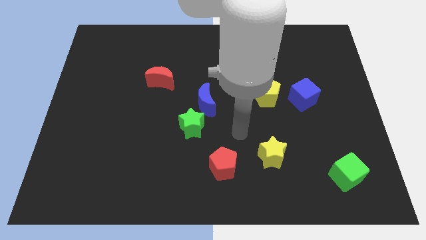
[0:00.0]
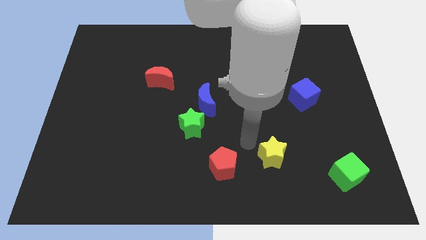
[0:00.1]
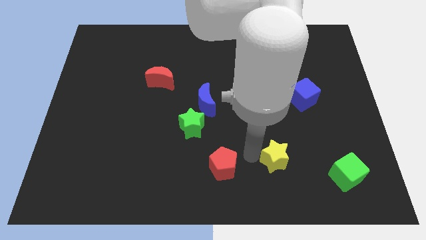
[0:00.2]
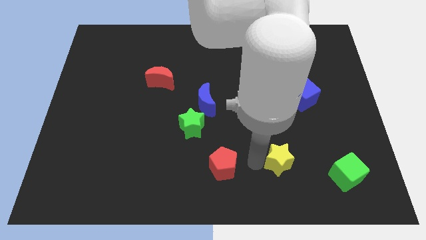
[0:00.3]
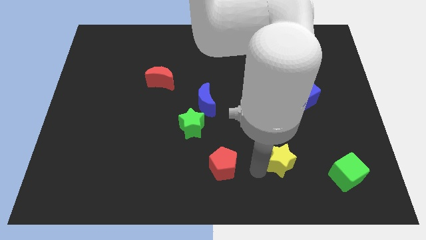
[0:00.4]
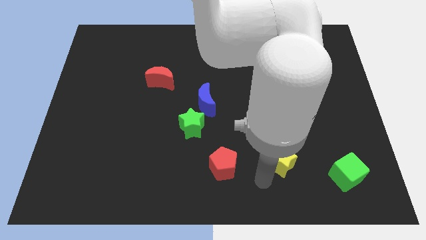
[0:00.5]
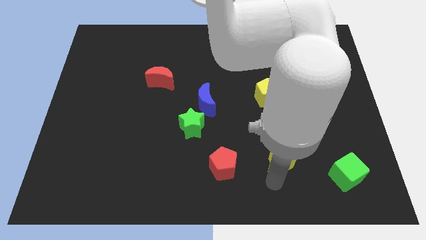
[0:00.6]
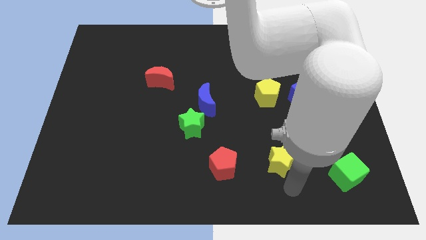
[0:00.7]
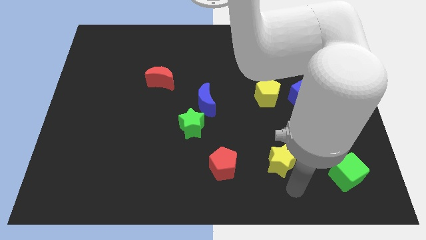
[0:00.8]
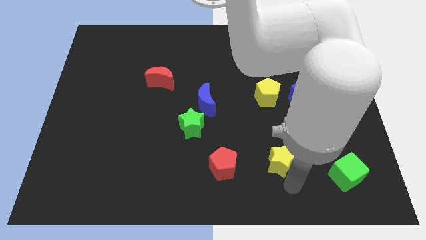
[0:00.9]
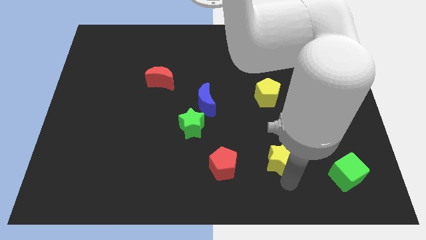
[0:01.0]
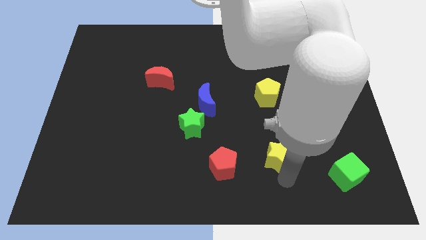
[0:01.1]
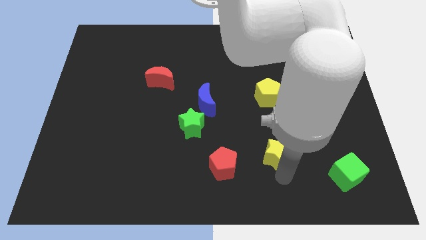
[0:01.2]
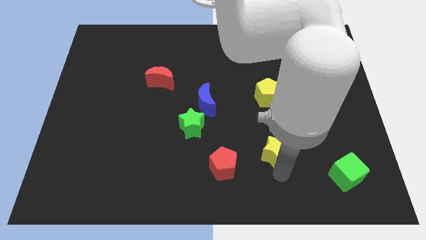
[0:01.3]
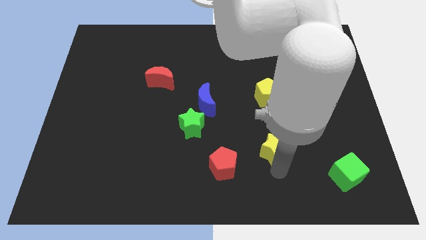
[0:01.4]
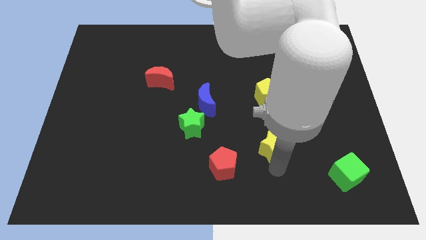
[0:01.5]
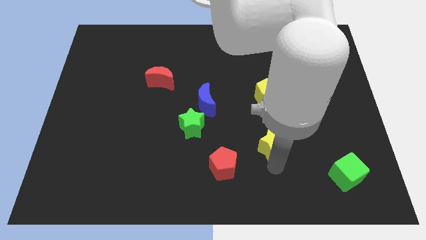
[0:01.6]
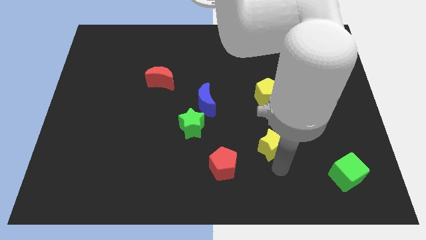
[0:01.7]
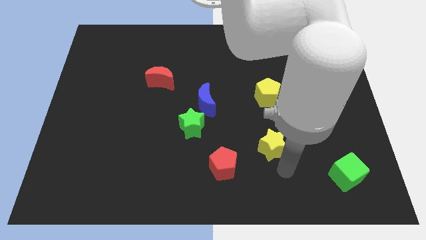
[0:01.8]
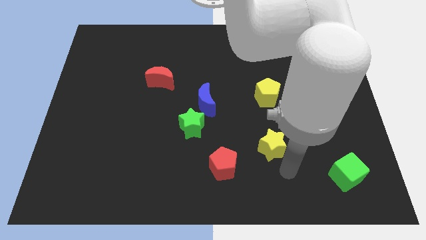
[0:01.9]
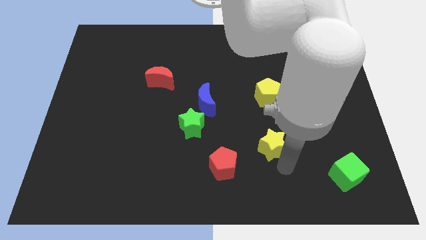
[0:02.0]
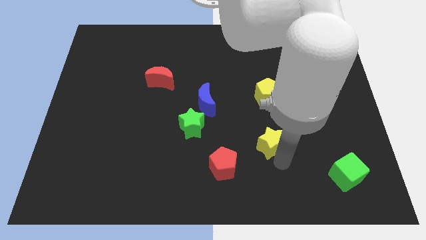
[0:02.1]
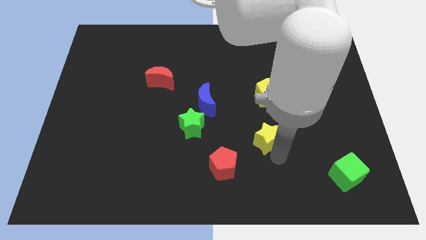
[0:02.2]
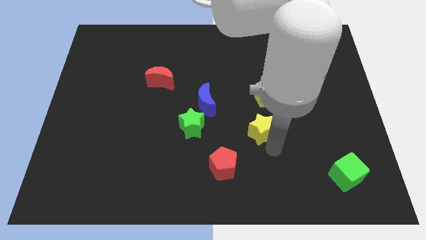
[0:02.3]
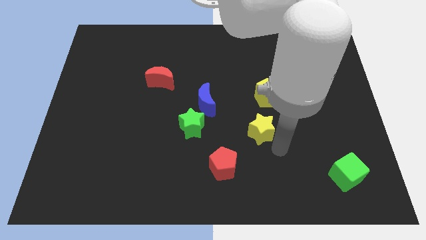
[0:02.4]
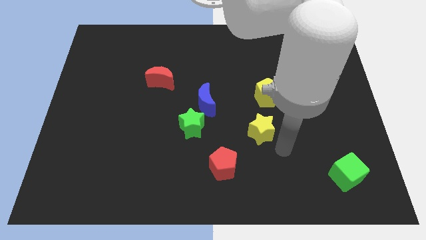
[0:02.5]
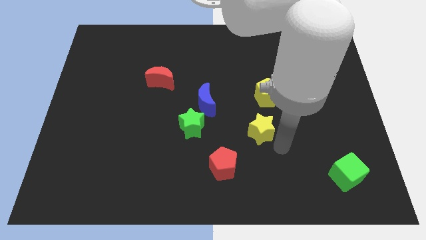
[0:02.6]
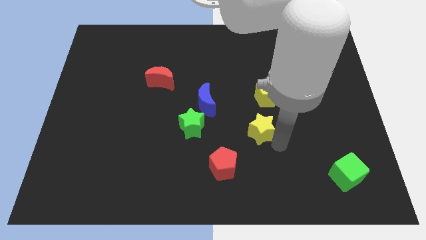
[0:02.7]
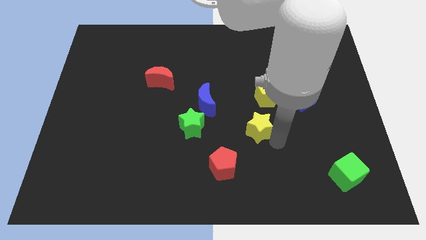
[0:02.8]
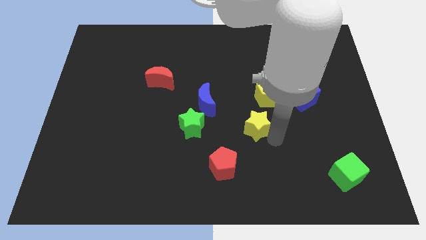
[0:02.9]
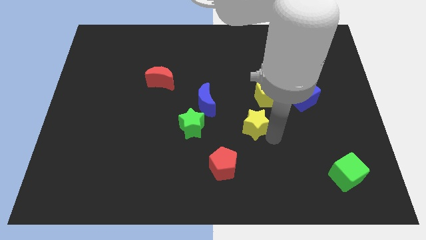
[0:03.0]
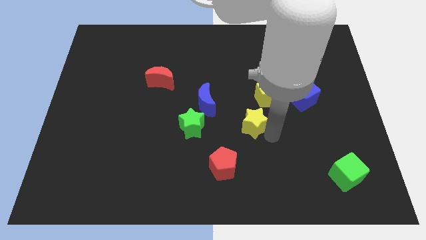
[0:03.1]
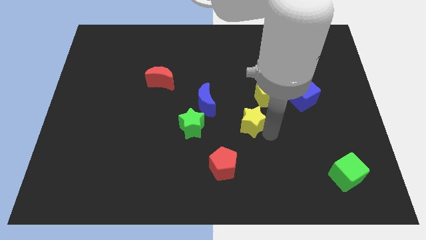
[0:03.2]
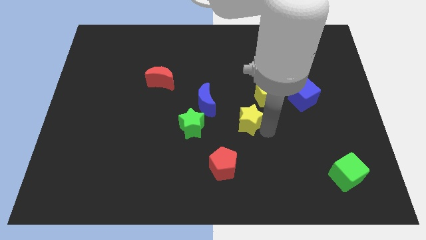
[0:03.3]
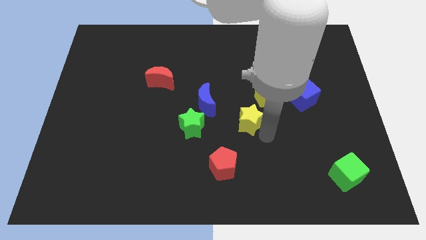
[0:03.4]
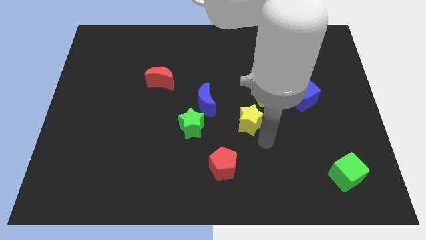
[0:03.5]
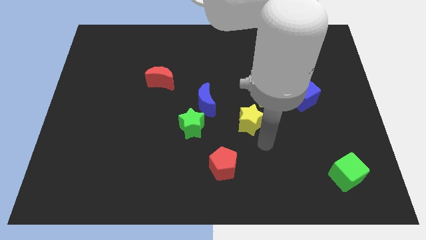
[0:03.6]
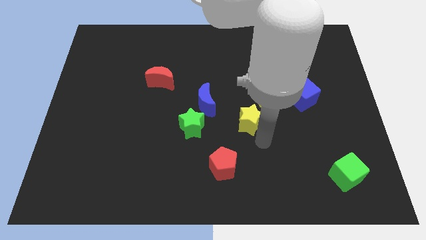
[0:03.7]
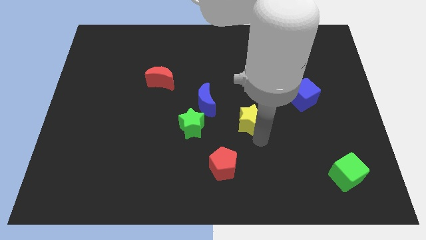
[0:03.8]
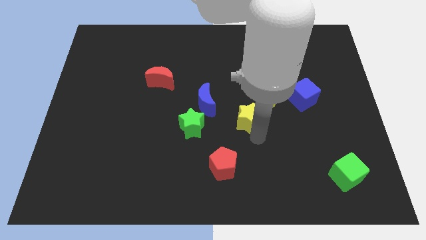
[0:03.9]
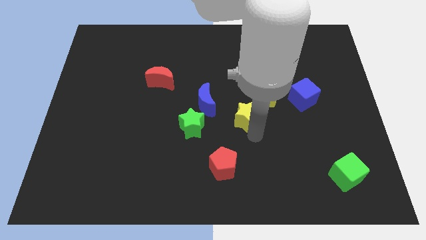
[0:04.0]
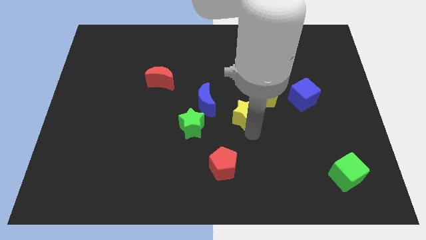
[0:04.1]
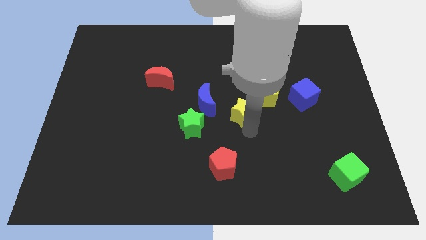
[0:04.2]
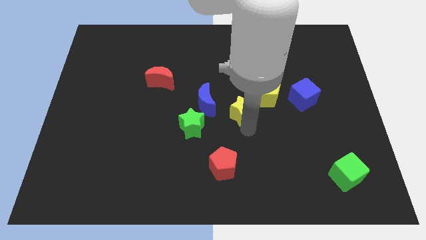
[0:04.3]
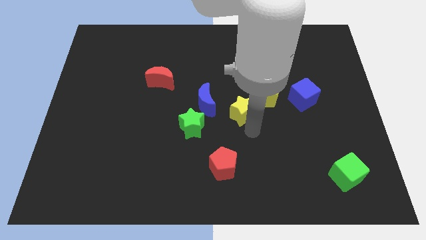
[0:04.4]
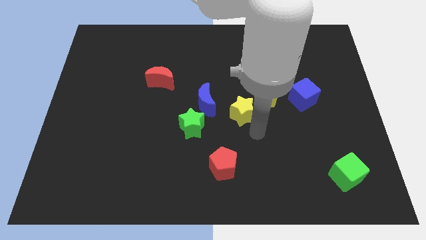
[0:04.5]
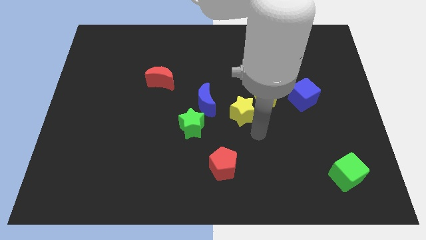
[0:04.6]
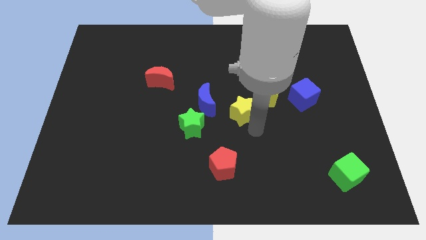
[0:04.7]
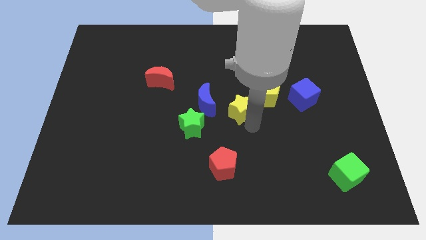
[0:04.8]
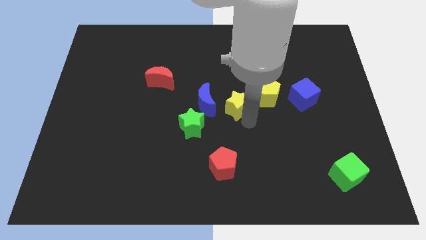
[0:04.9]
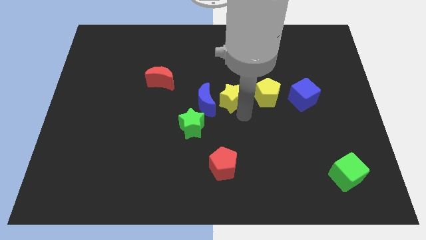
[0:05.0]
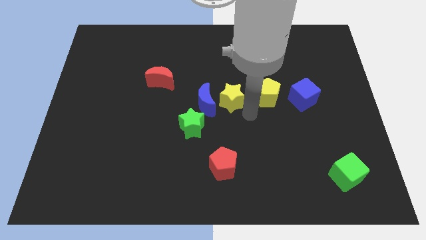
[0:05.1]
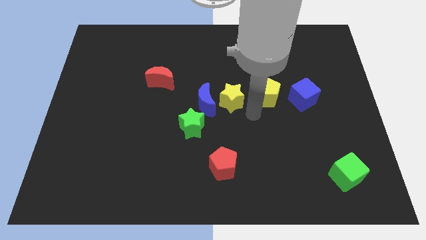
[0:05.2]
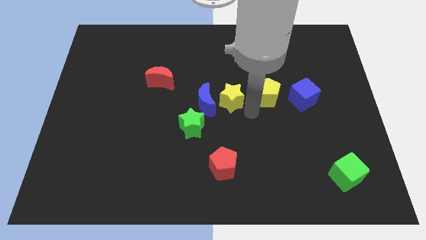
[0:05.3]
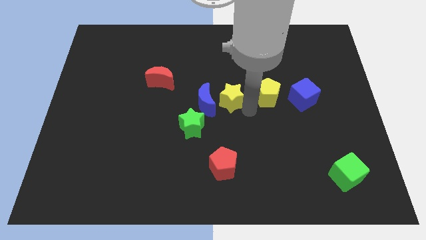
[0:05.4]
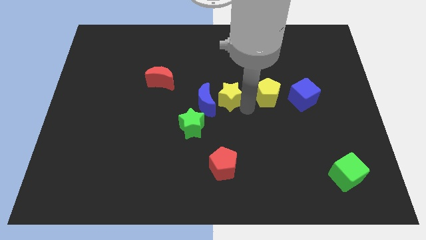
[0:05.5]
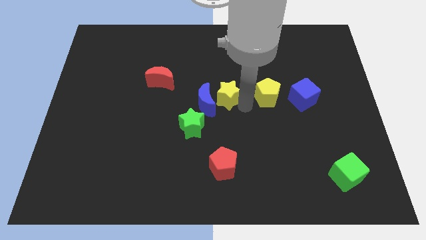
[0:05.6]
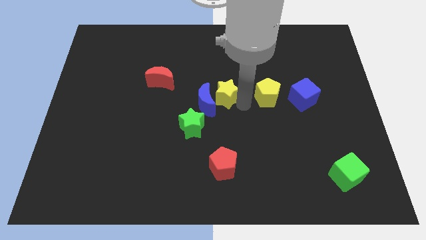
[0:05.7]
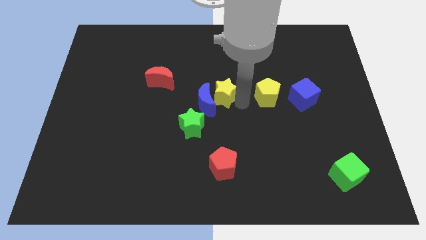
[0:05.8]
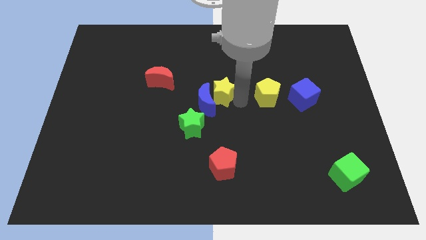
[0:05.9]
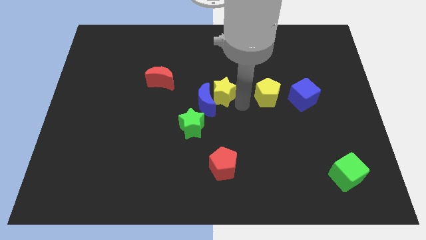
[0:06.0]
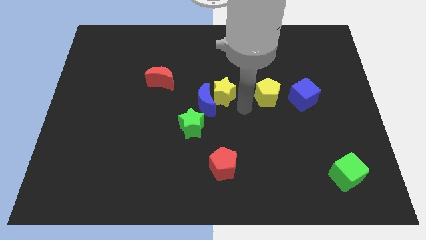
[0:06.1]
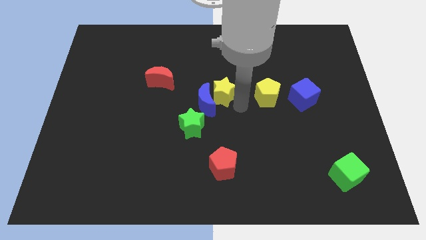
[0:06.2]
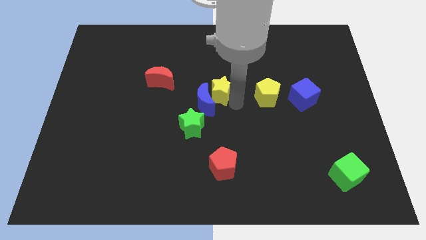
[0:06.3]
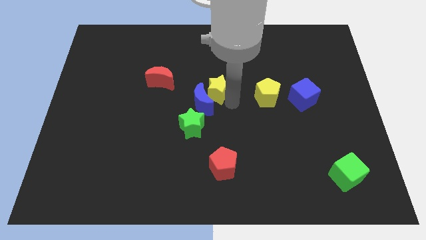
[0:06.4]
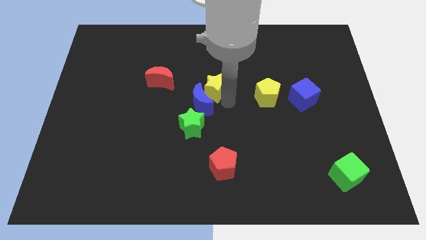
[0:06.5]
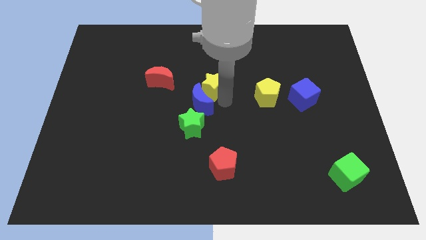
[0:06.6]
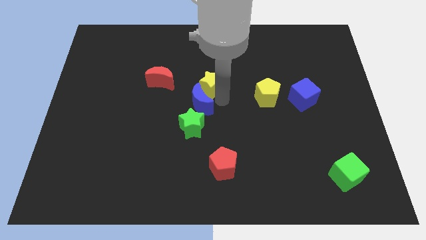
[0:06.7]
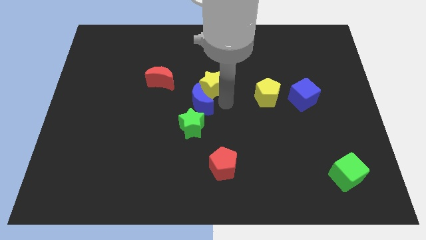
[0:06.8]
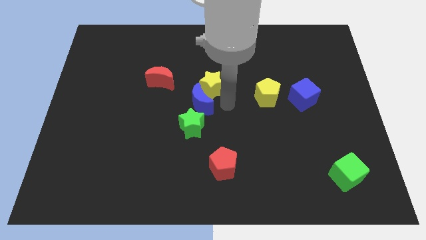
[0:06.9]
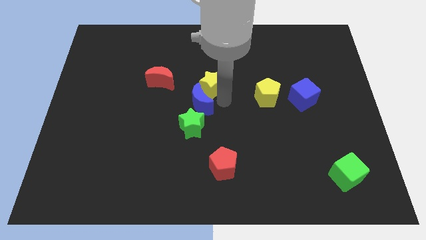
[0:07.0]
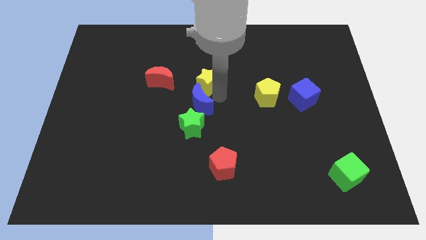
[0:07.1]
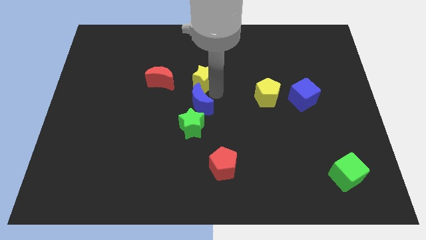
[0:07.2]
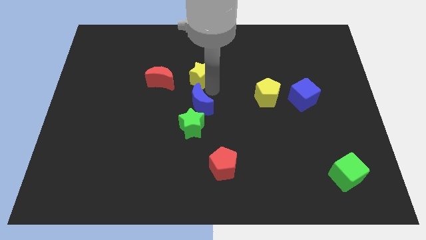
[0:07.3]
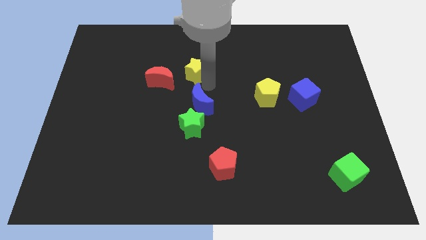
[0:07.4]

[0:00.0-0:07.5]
put the yellow star to the top right side of the red moon
